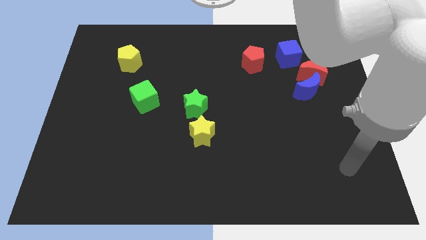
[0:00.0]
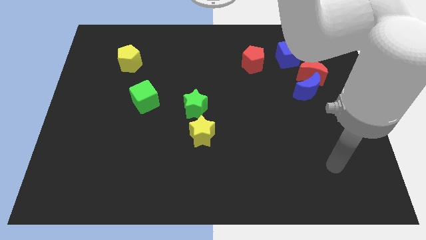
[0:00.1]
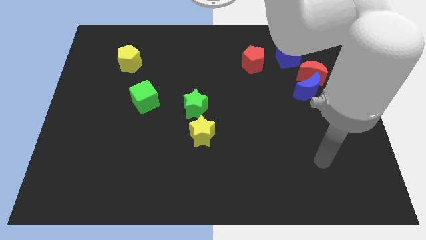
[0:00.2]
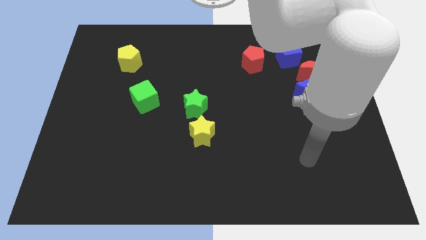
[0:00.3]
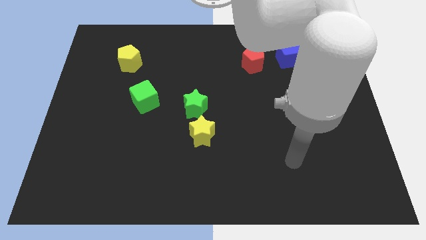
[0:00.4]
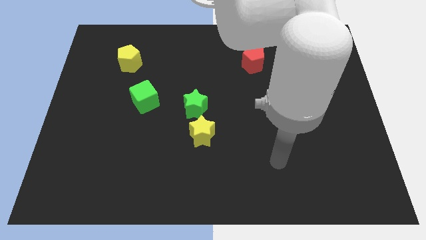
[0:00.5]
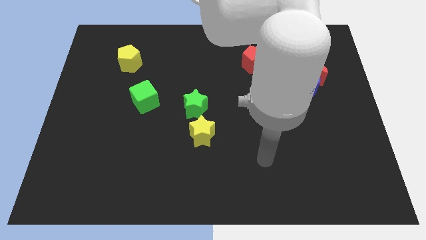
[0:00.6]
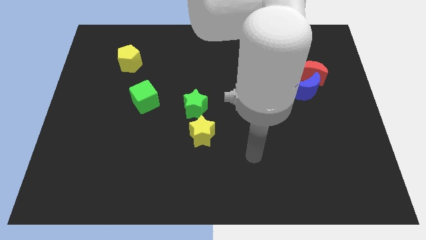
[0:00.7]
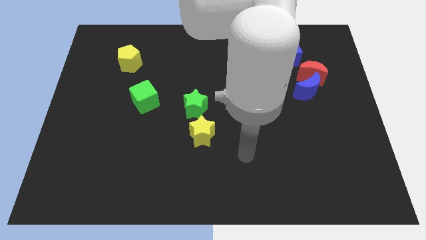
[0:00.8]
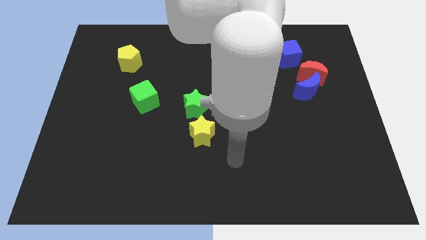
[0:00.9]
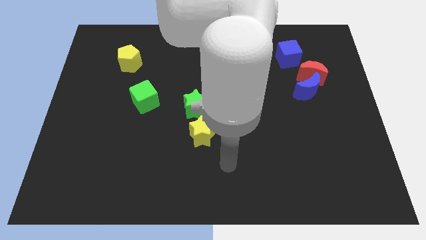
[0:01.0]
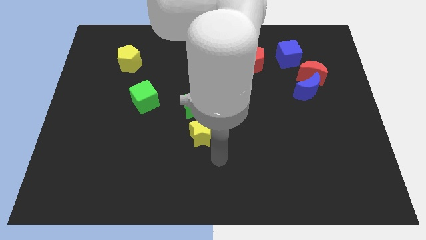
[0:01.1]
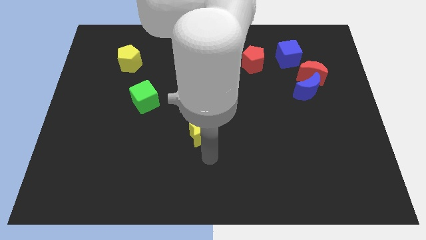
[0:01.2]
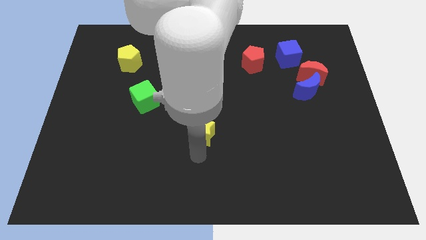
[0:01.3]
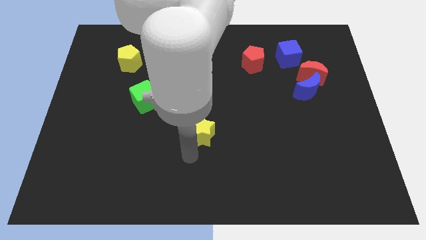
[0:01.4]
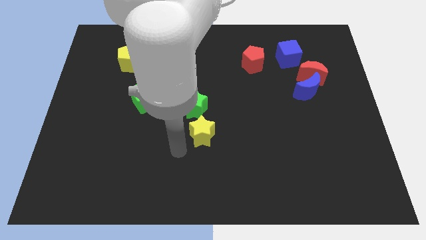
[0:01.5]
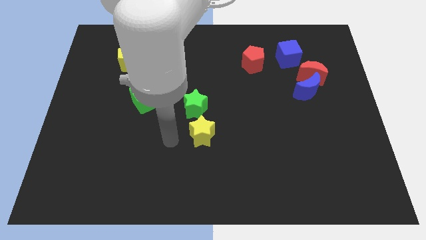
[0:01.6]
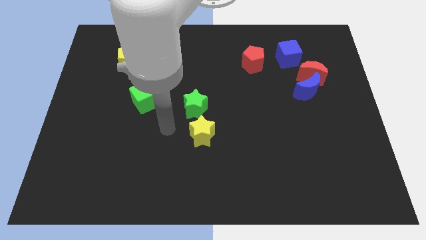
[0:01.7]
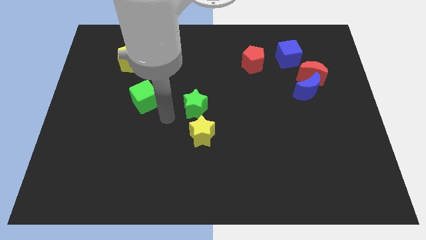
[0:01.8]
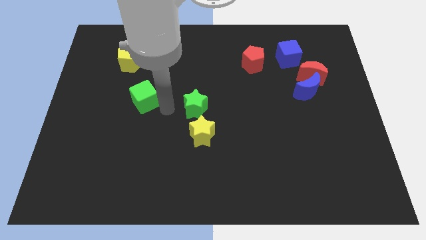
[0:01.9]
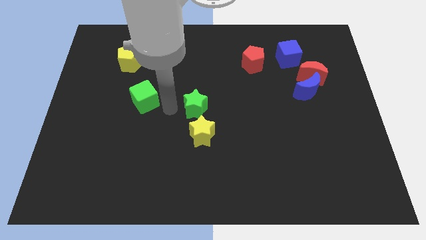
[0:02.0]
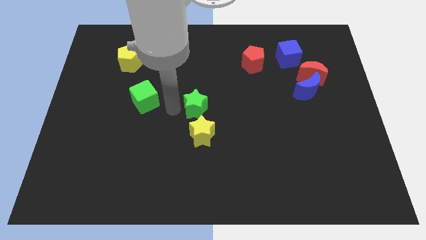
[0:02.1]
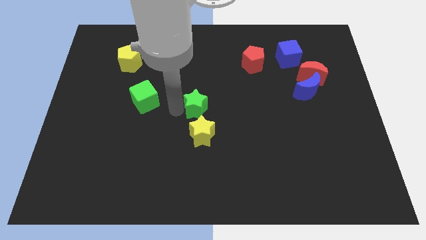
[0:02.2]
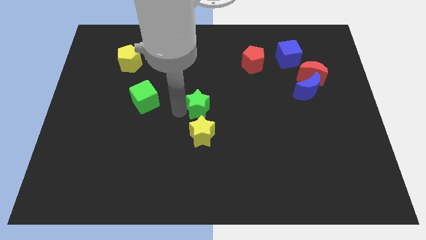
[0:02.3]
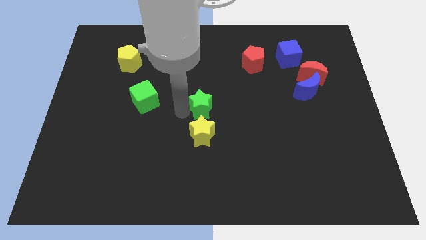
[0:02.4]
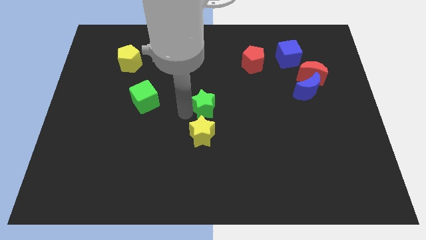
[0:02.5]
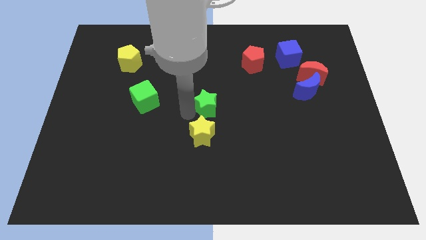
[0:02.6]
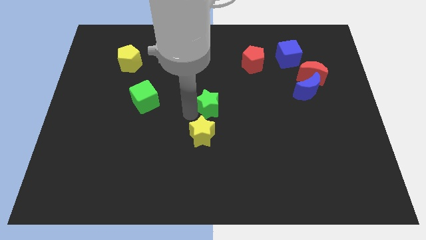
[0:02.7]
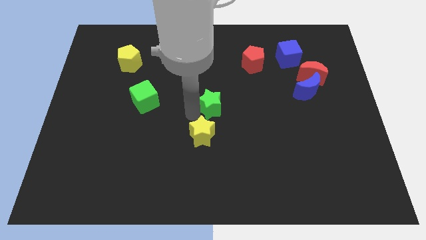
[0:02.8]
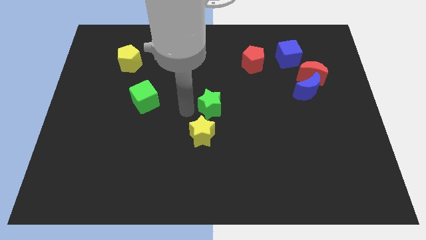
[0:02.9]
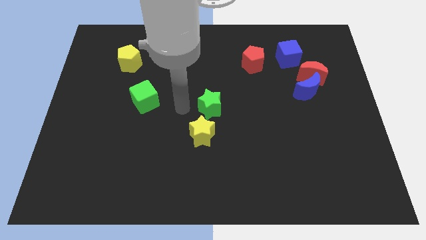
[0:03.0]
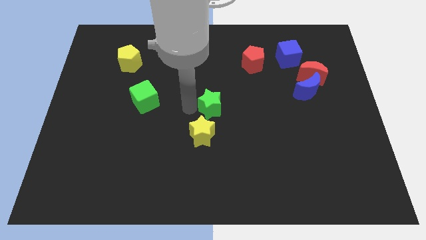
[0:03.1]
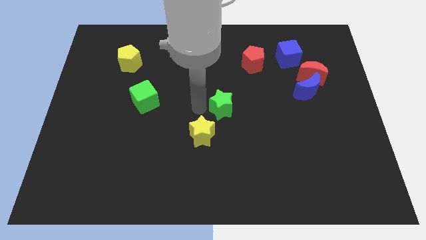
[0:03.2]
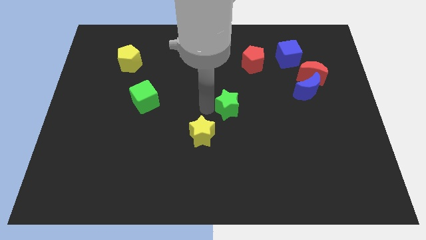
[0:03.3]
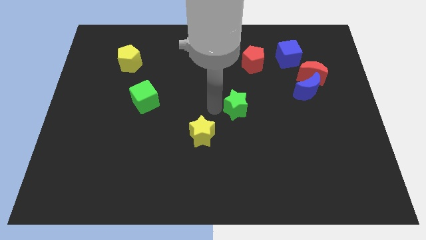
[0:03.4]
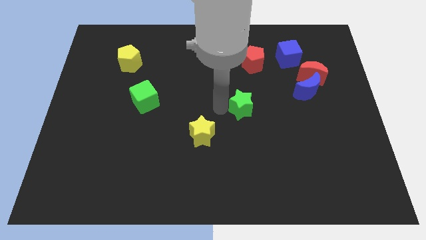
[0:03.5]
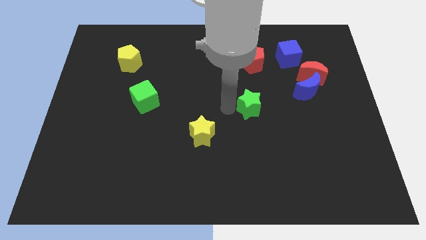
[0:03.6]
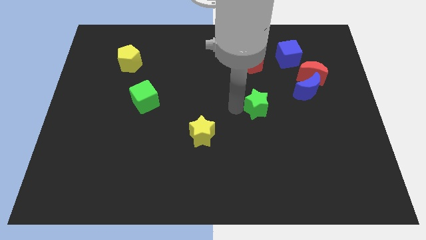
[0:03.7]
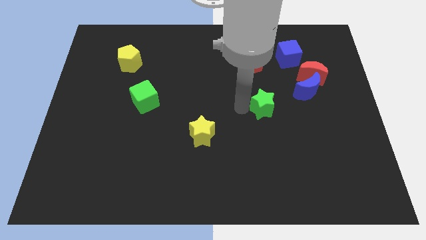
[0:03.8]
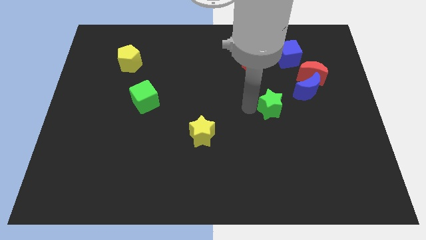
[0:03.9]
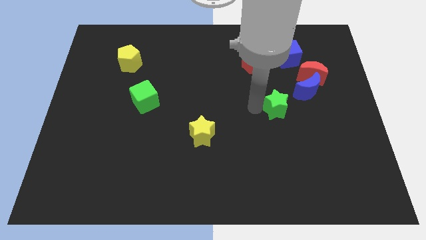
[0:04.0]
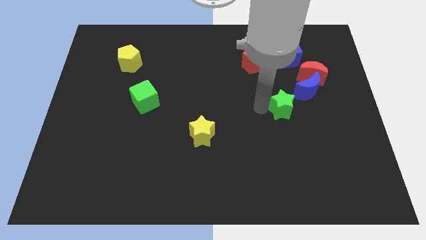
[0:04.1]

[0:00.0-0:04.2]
push the green star to the right

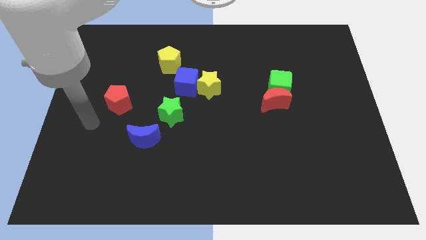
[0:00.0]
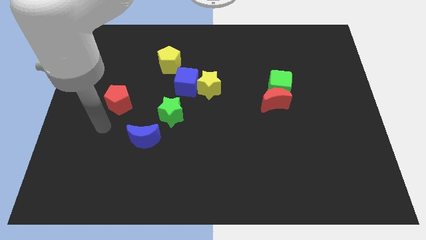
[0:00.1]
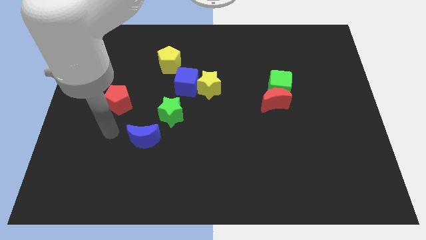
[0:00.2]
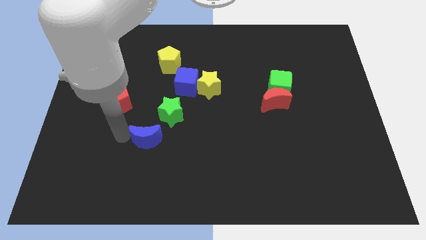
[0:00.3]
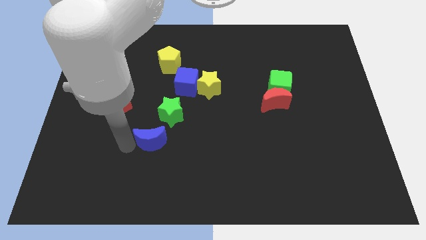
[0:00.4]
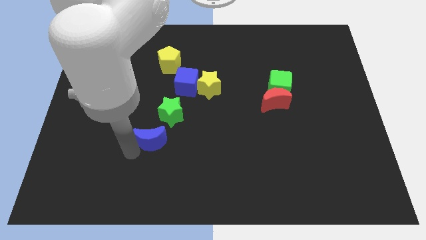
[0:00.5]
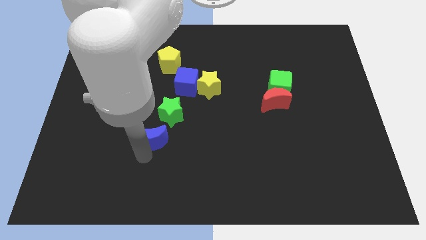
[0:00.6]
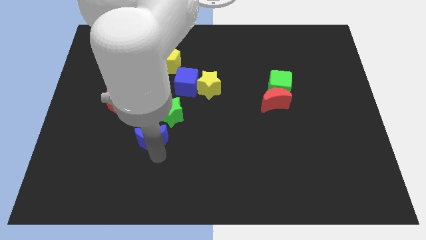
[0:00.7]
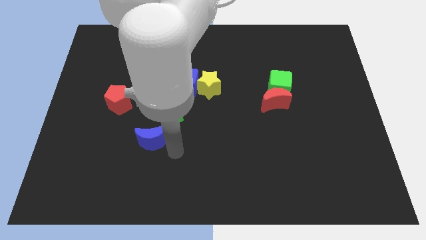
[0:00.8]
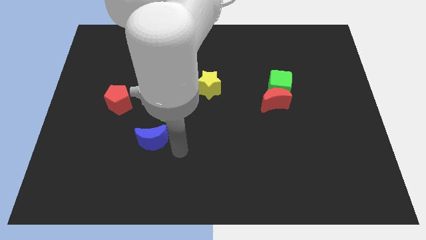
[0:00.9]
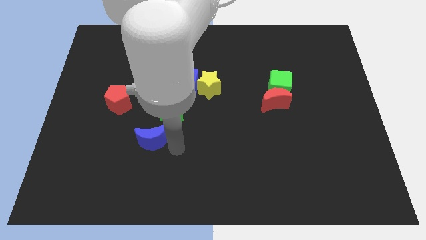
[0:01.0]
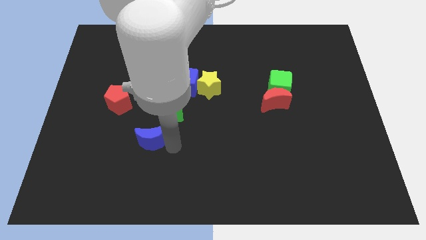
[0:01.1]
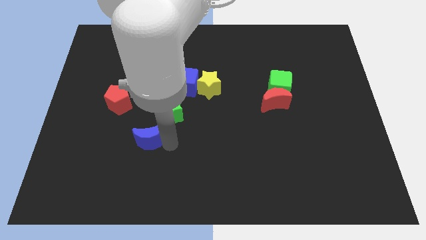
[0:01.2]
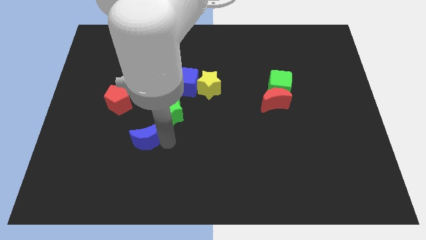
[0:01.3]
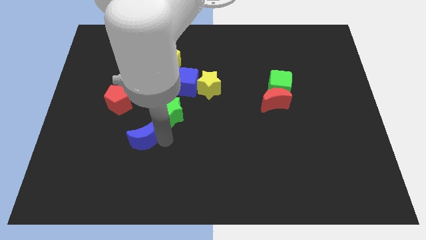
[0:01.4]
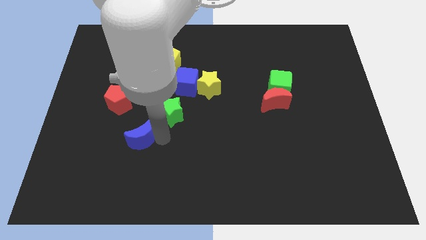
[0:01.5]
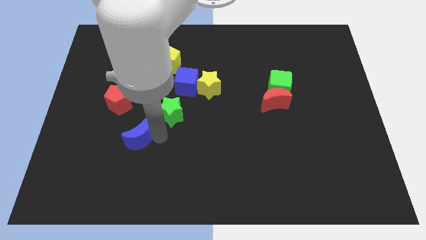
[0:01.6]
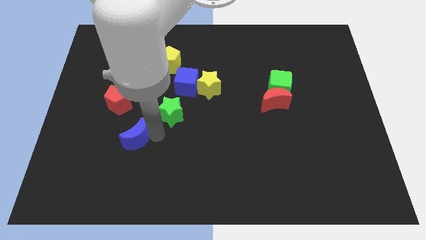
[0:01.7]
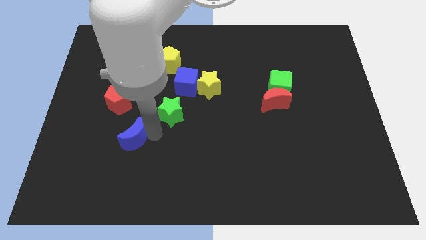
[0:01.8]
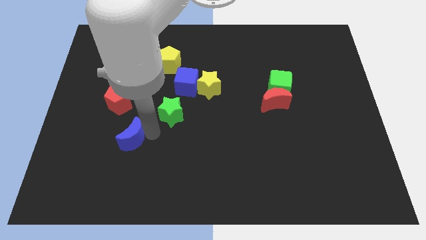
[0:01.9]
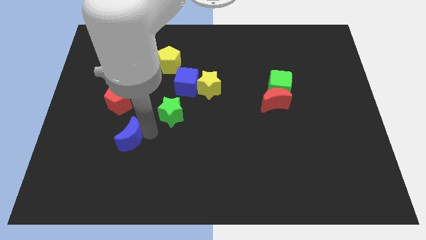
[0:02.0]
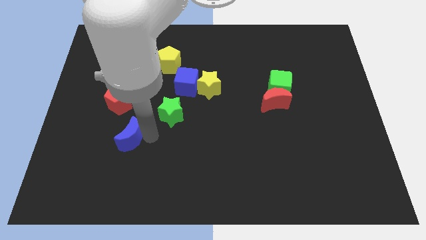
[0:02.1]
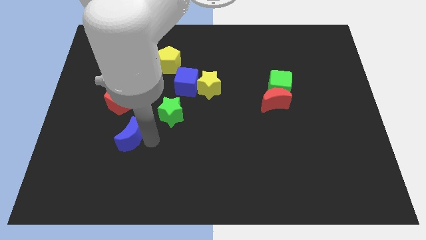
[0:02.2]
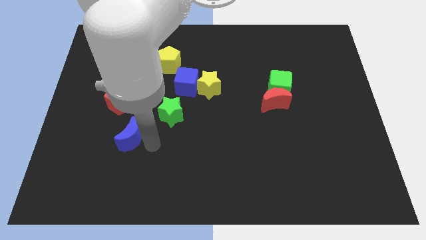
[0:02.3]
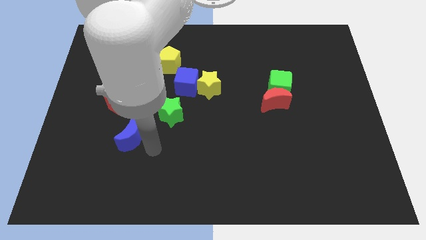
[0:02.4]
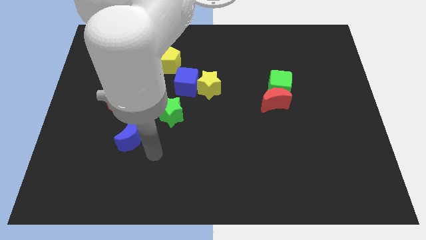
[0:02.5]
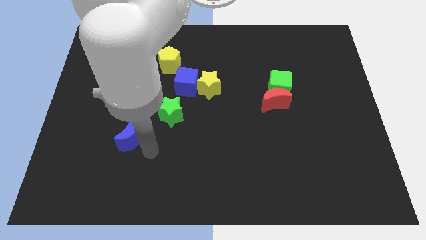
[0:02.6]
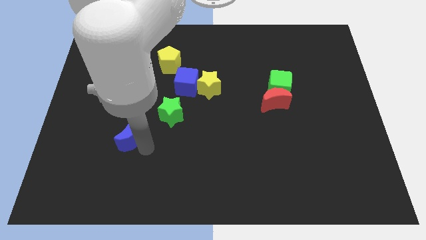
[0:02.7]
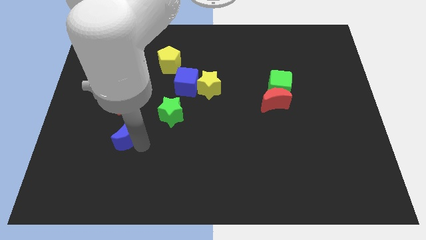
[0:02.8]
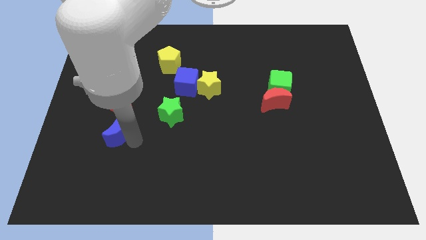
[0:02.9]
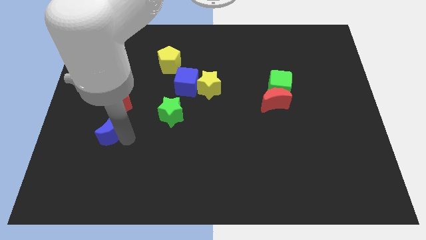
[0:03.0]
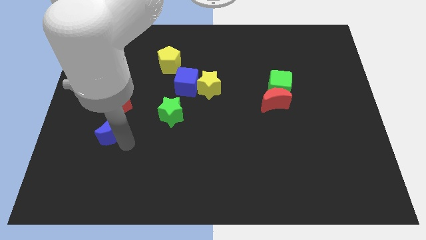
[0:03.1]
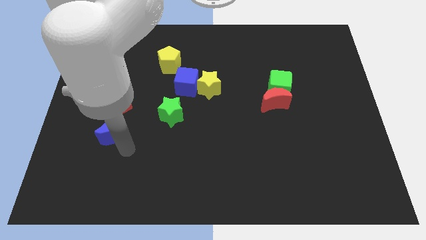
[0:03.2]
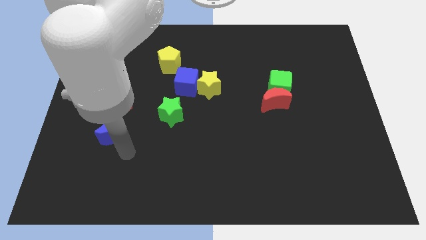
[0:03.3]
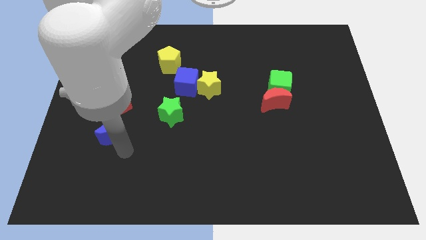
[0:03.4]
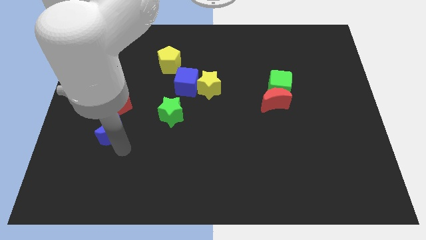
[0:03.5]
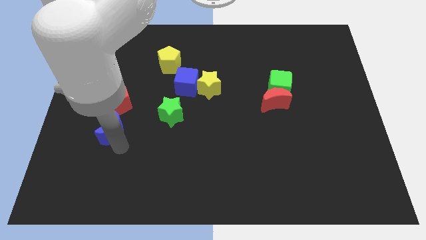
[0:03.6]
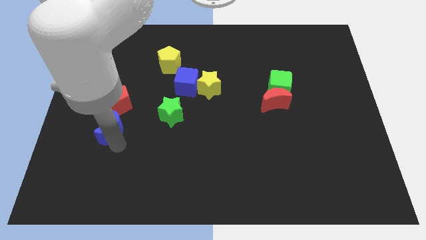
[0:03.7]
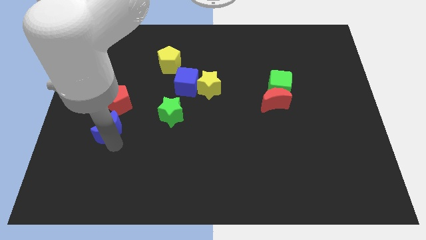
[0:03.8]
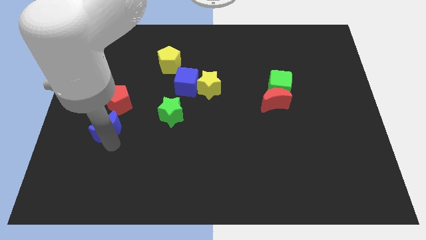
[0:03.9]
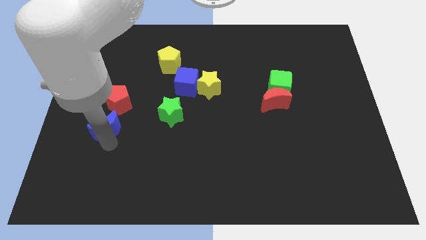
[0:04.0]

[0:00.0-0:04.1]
slightly push the blue moon up and left
